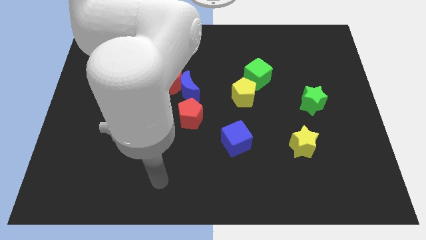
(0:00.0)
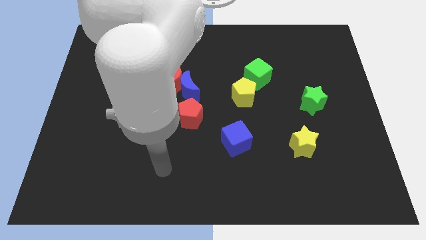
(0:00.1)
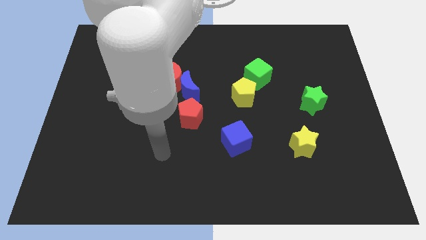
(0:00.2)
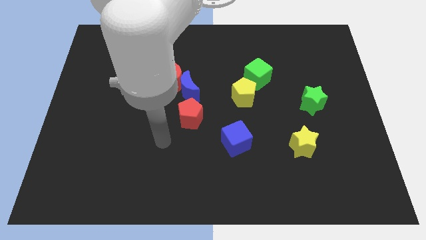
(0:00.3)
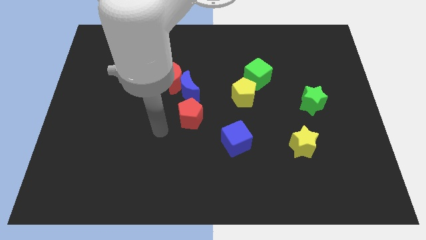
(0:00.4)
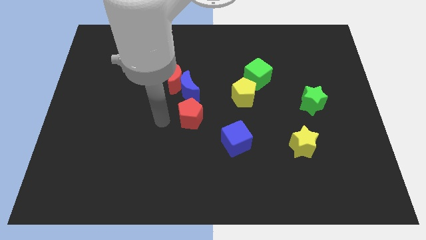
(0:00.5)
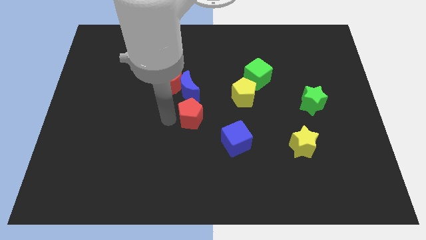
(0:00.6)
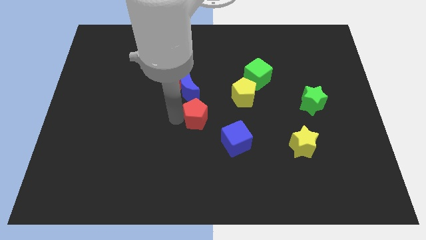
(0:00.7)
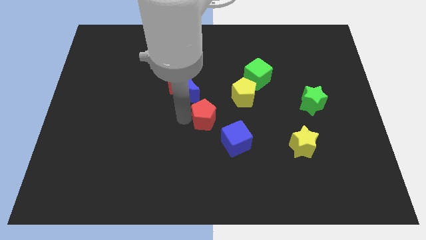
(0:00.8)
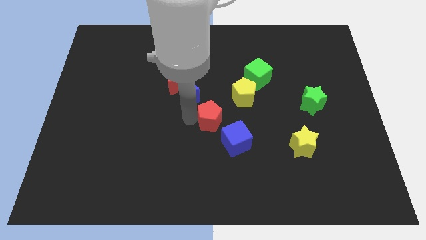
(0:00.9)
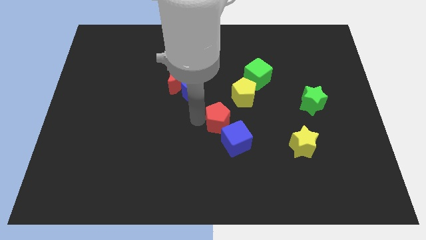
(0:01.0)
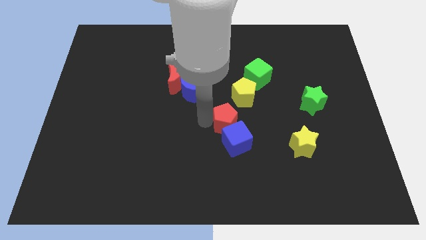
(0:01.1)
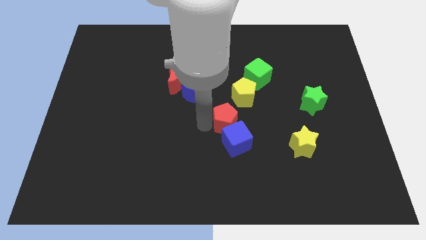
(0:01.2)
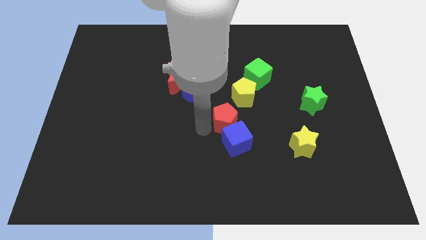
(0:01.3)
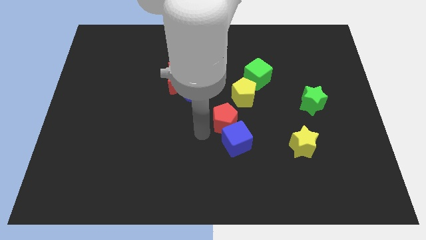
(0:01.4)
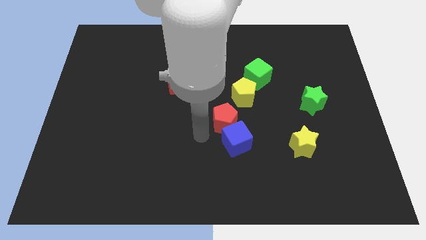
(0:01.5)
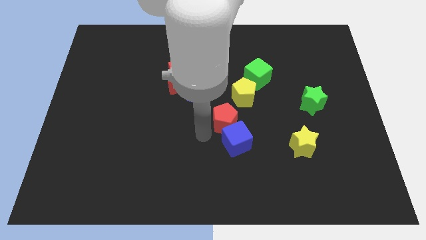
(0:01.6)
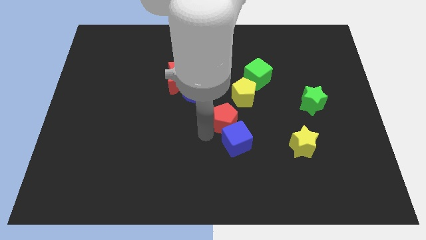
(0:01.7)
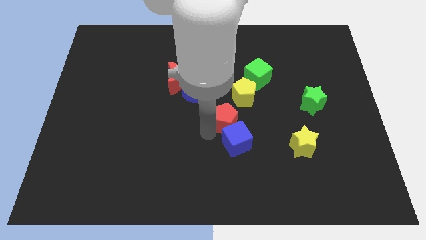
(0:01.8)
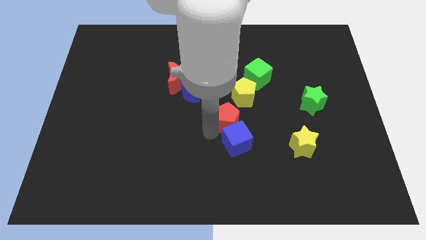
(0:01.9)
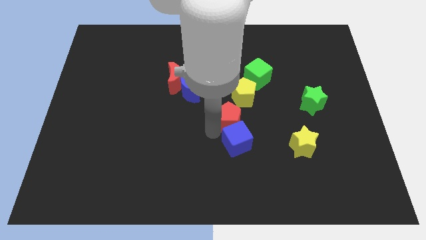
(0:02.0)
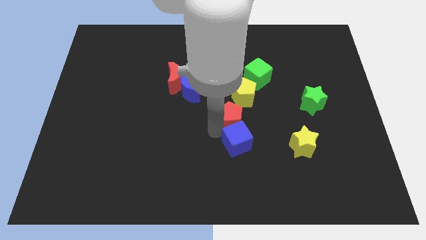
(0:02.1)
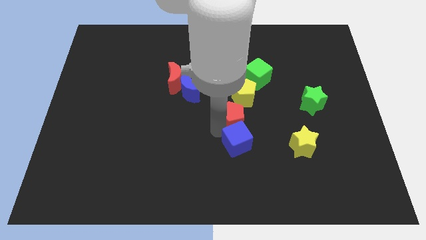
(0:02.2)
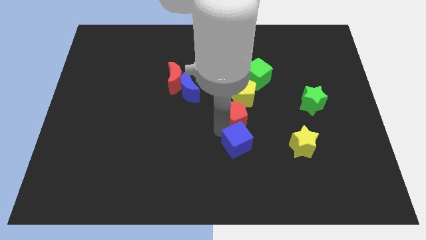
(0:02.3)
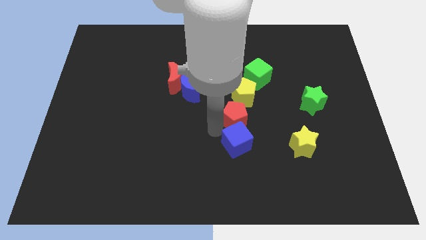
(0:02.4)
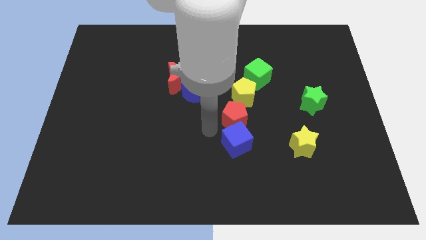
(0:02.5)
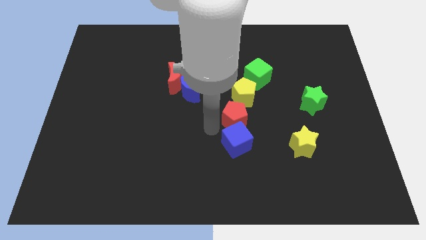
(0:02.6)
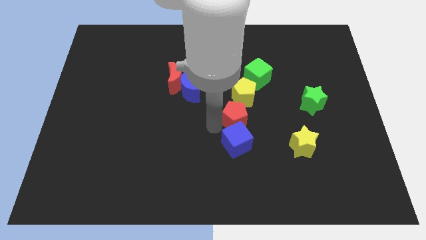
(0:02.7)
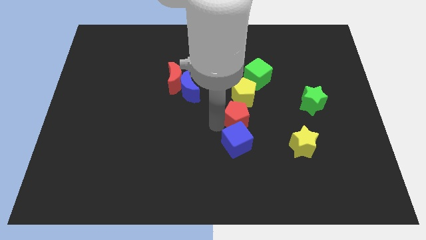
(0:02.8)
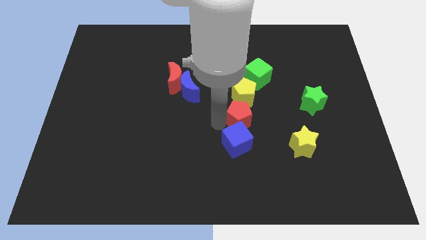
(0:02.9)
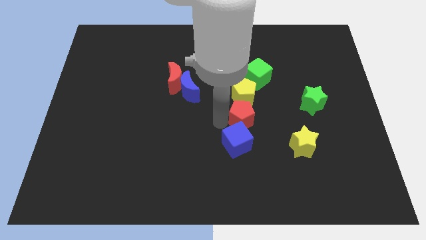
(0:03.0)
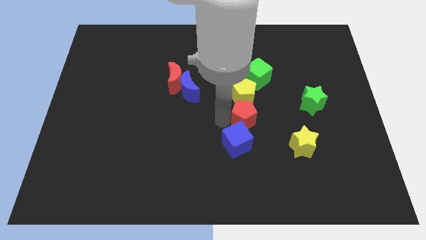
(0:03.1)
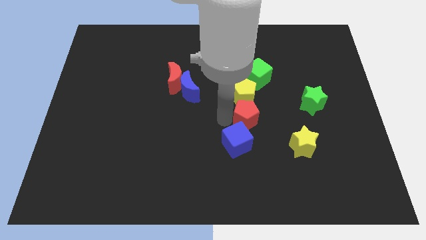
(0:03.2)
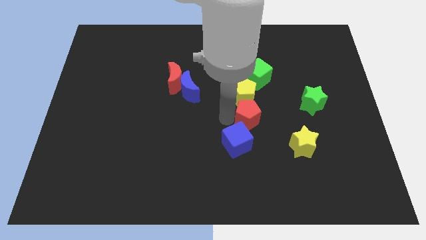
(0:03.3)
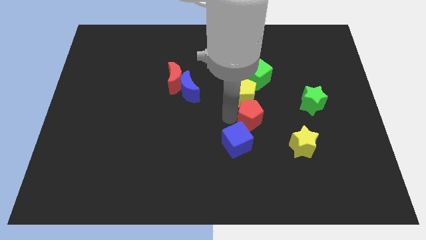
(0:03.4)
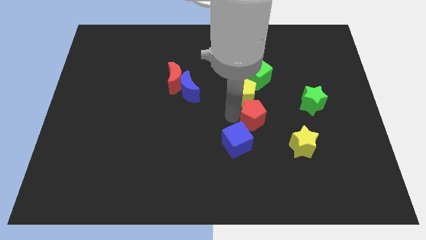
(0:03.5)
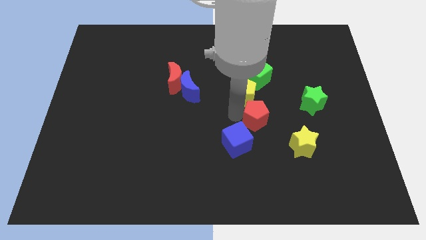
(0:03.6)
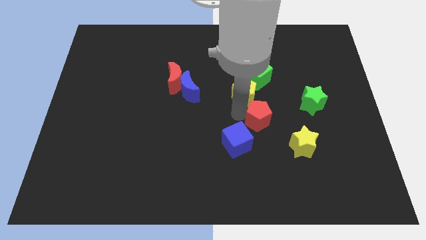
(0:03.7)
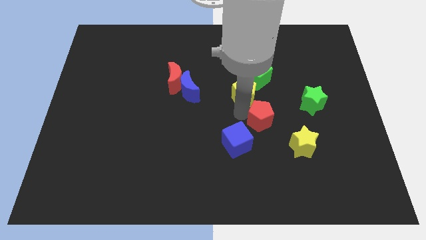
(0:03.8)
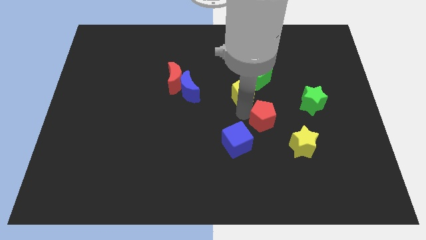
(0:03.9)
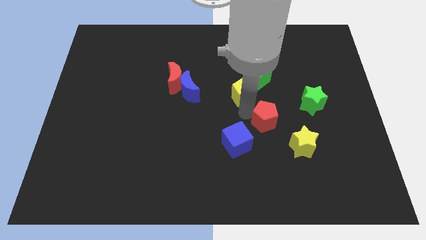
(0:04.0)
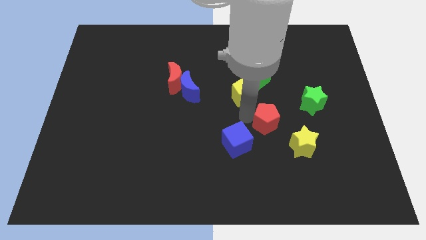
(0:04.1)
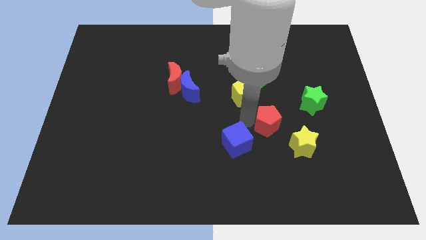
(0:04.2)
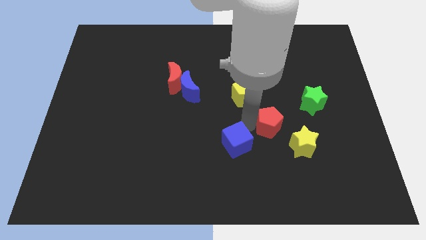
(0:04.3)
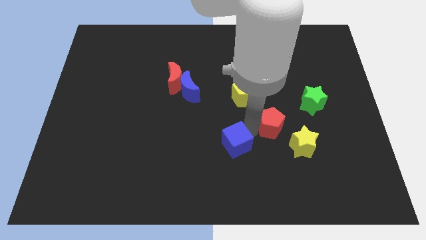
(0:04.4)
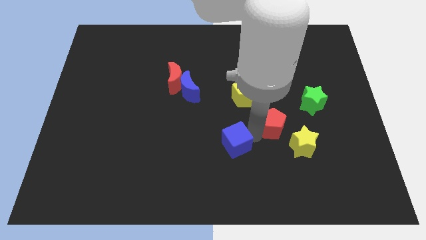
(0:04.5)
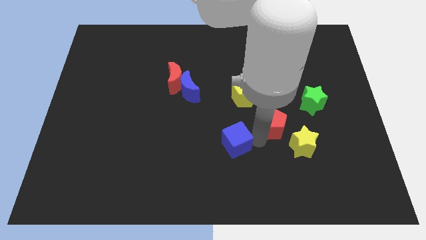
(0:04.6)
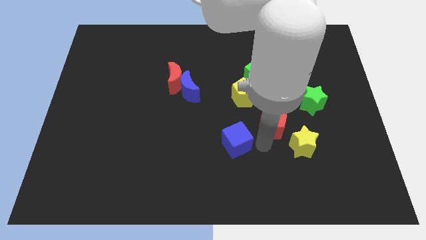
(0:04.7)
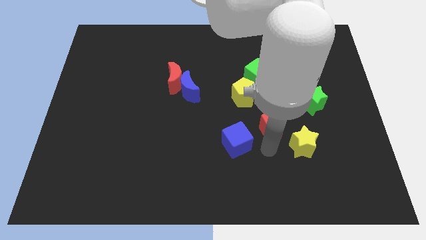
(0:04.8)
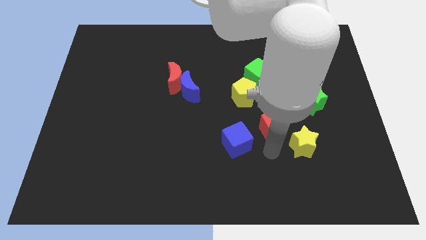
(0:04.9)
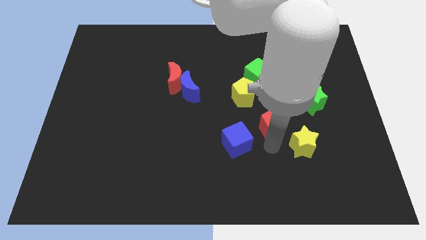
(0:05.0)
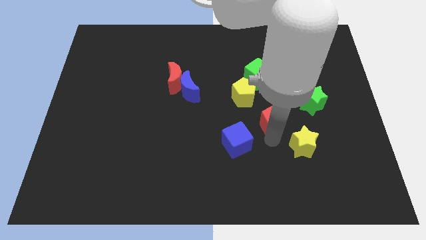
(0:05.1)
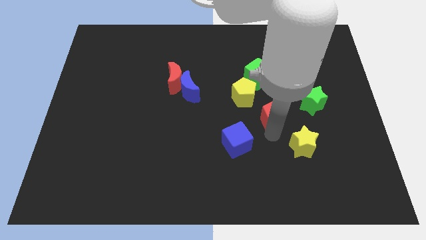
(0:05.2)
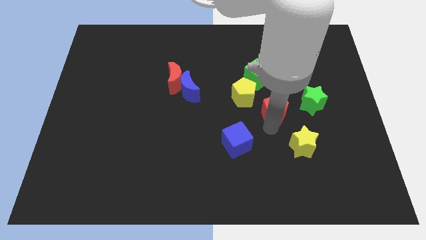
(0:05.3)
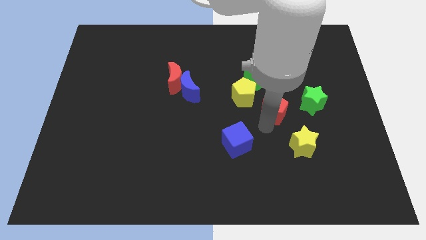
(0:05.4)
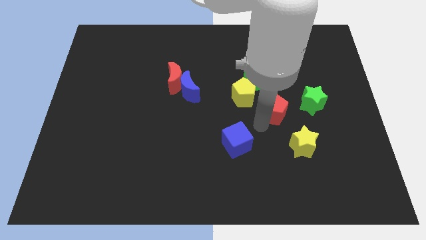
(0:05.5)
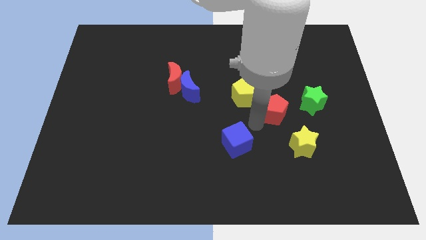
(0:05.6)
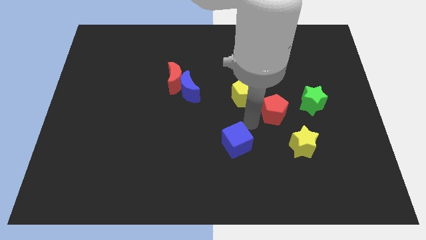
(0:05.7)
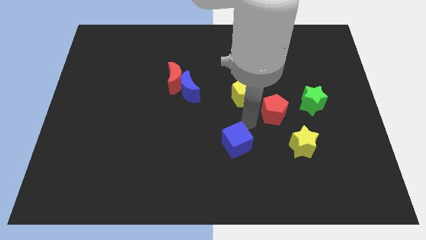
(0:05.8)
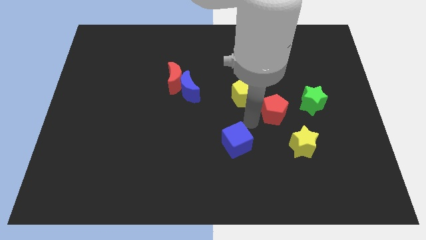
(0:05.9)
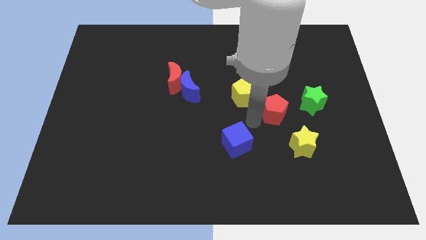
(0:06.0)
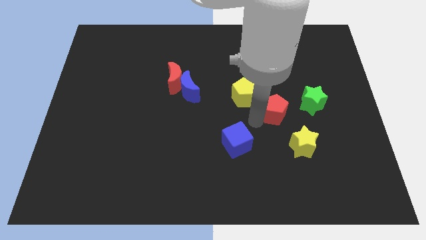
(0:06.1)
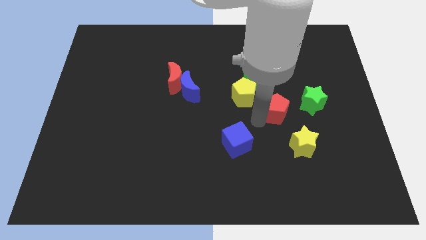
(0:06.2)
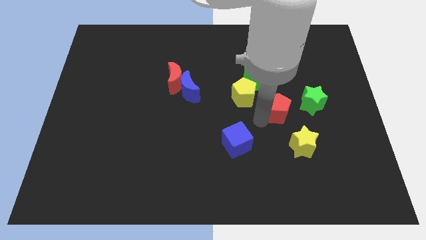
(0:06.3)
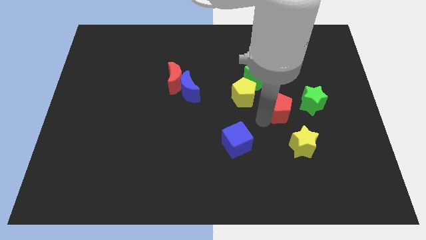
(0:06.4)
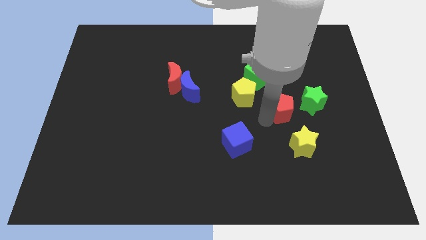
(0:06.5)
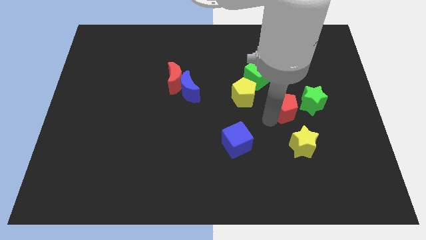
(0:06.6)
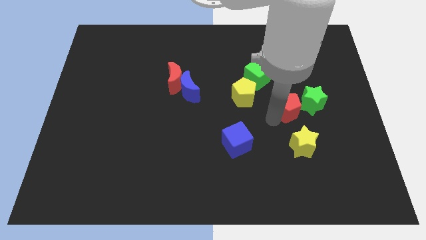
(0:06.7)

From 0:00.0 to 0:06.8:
put the red pentagon to the green star
